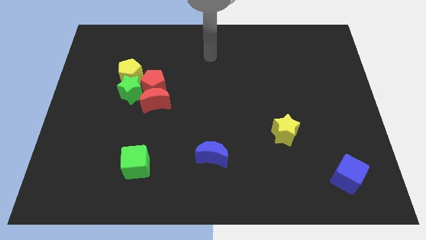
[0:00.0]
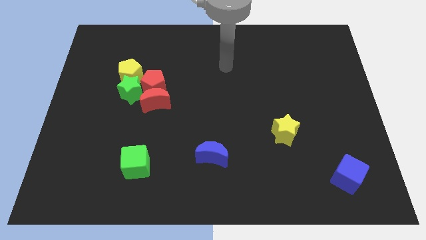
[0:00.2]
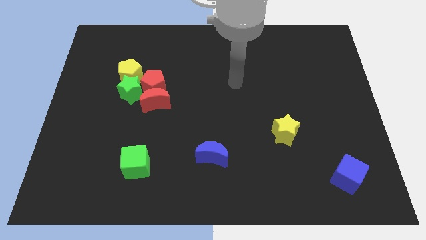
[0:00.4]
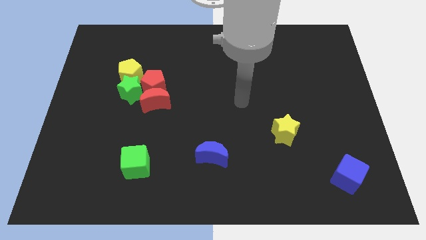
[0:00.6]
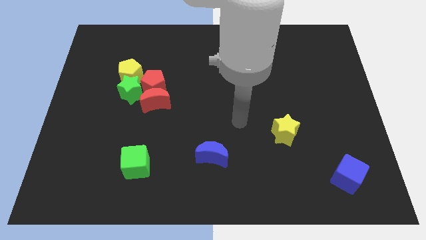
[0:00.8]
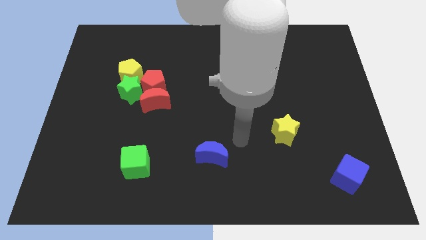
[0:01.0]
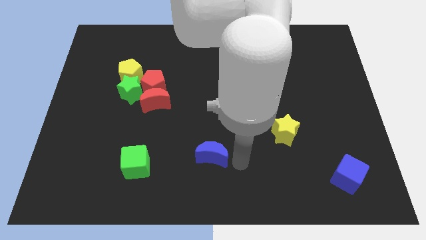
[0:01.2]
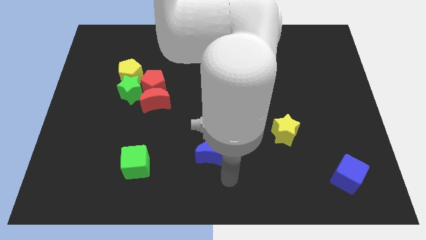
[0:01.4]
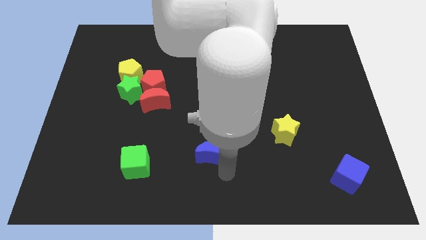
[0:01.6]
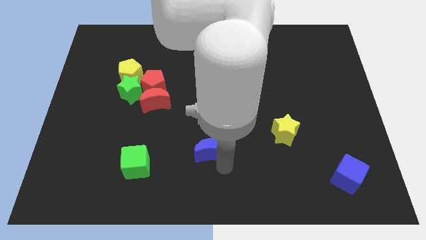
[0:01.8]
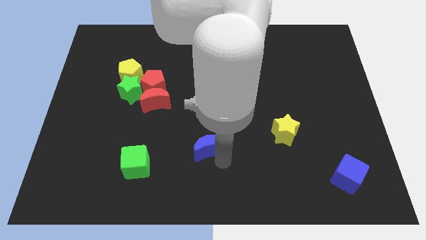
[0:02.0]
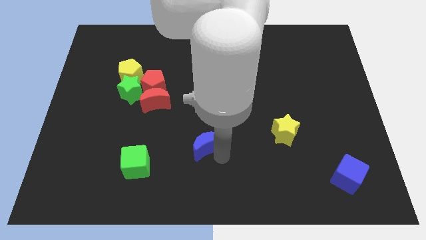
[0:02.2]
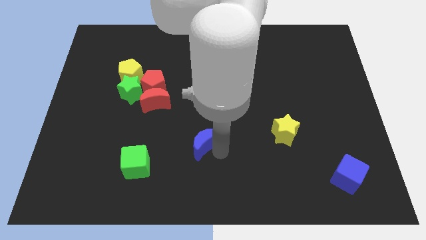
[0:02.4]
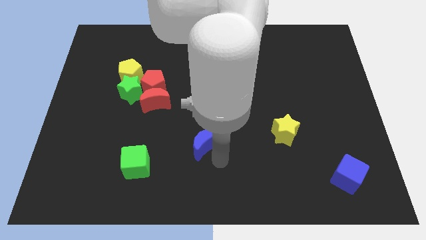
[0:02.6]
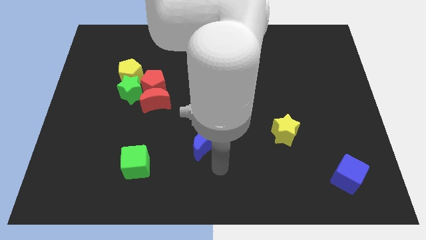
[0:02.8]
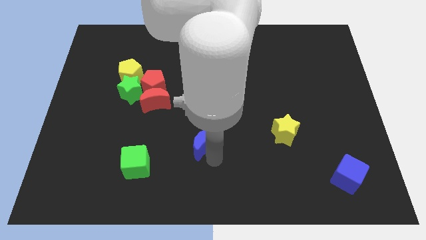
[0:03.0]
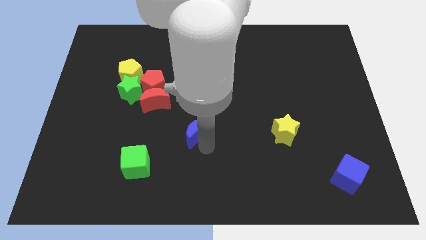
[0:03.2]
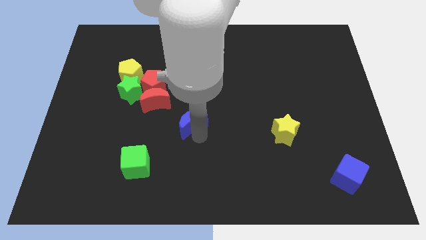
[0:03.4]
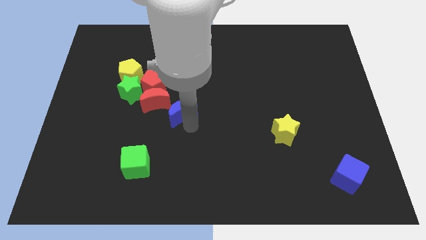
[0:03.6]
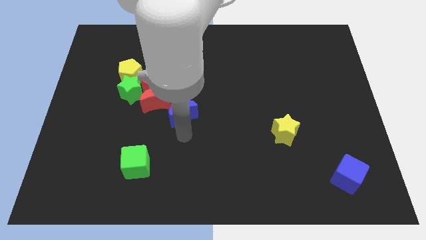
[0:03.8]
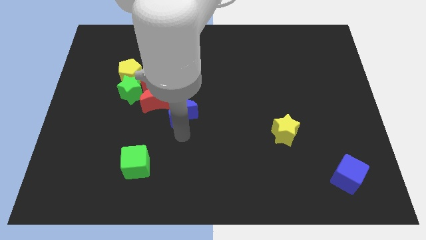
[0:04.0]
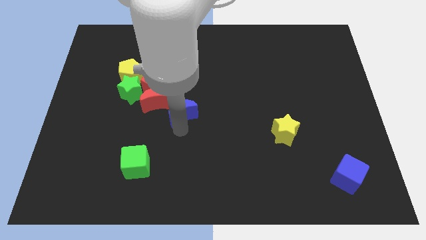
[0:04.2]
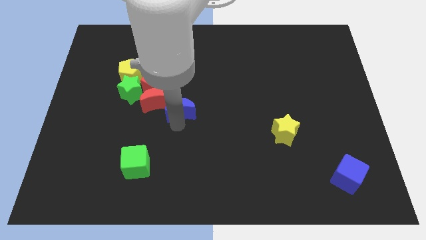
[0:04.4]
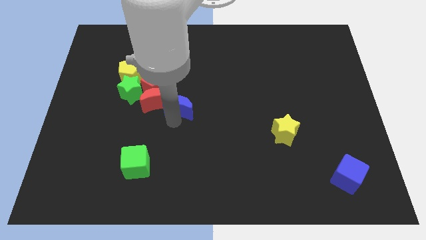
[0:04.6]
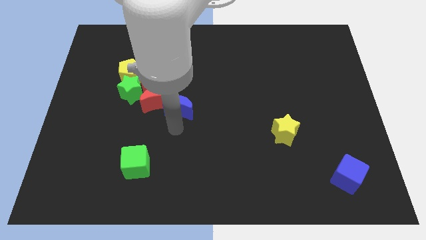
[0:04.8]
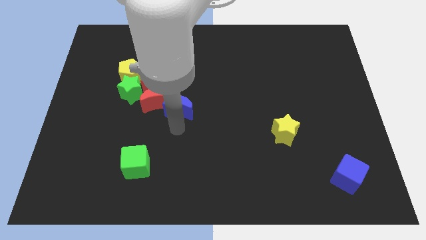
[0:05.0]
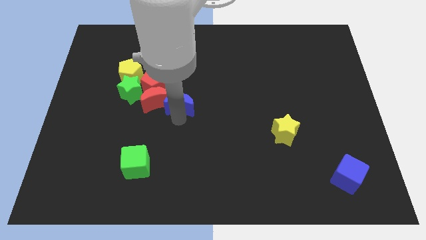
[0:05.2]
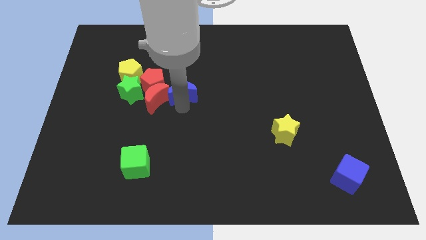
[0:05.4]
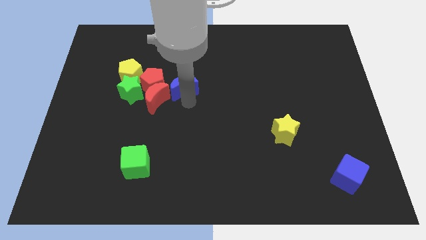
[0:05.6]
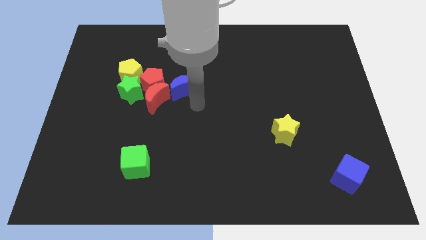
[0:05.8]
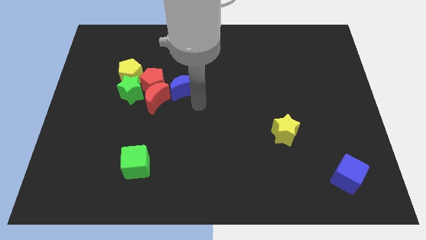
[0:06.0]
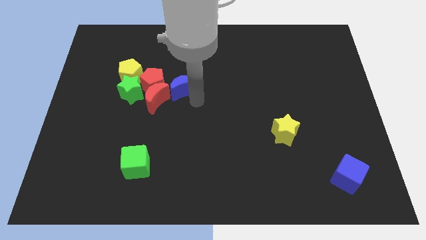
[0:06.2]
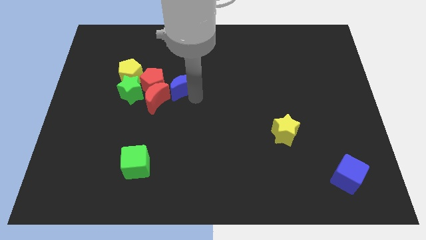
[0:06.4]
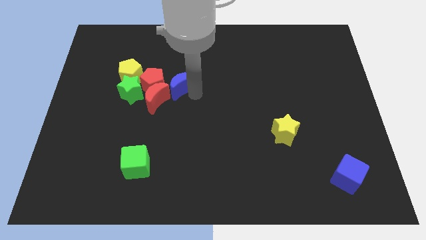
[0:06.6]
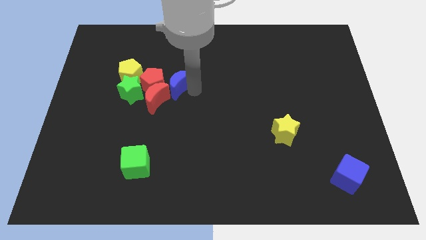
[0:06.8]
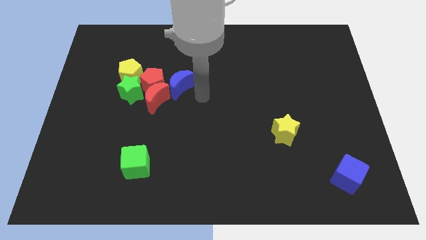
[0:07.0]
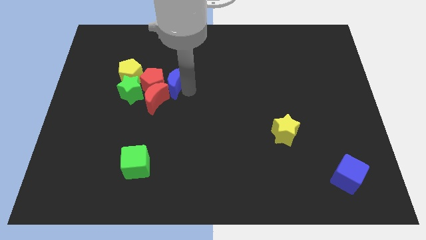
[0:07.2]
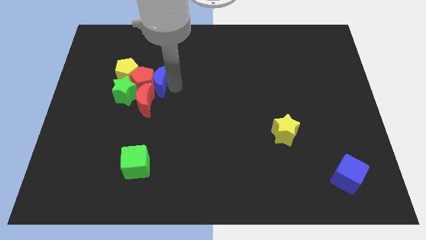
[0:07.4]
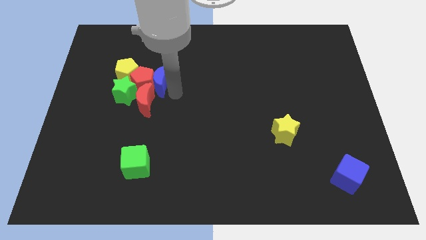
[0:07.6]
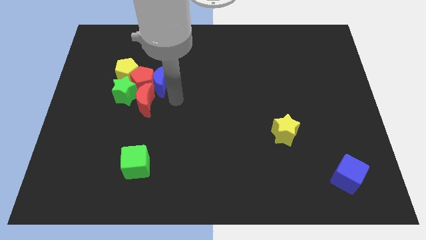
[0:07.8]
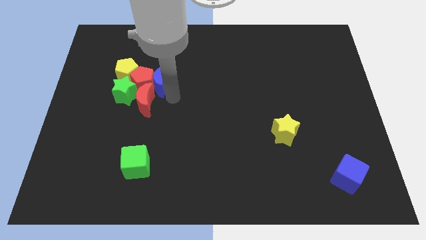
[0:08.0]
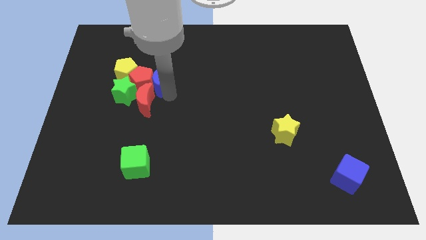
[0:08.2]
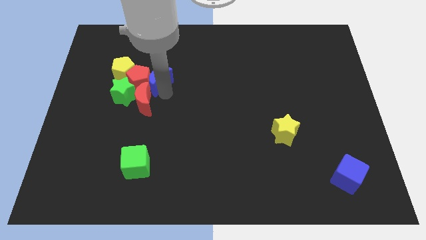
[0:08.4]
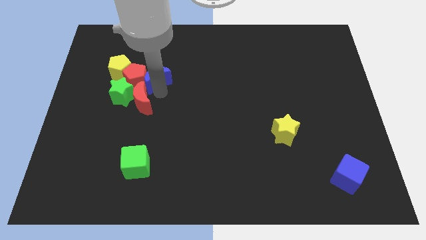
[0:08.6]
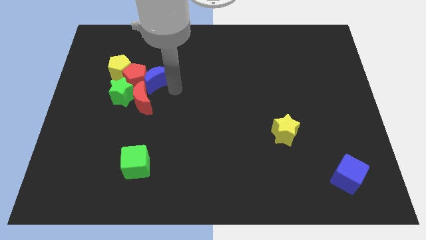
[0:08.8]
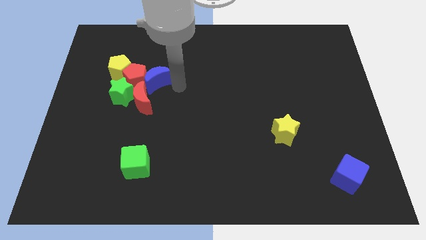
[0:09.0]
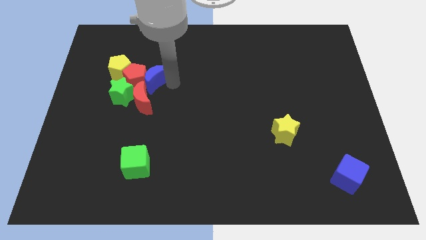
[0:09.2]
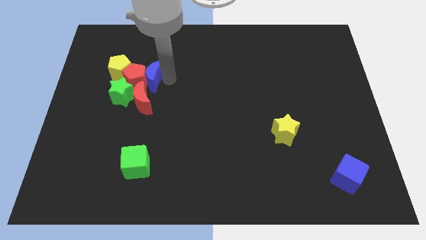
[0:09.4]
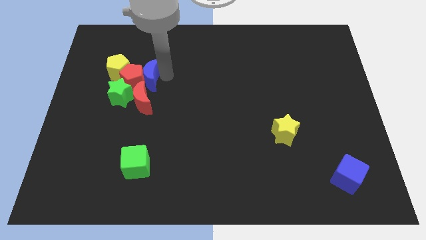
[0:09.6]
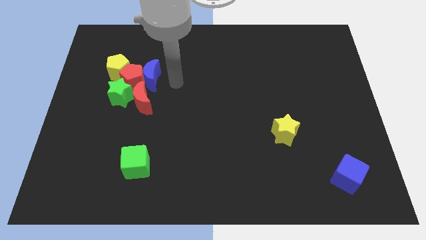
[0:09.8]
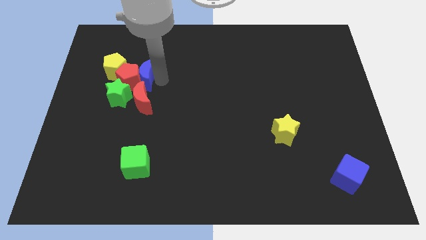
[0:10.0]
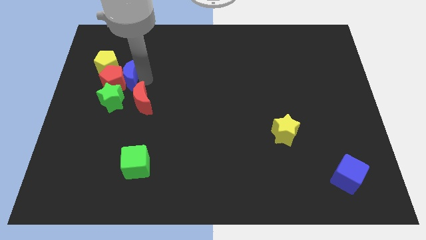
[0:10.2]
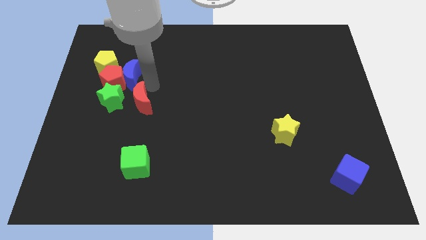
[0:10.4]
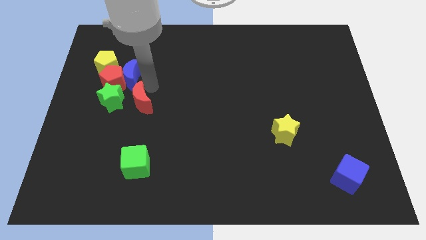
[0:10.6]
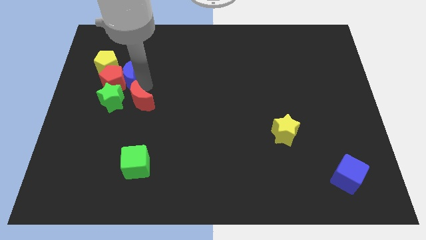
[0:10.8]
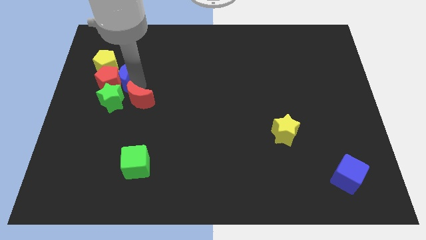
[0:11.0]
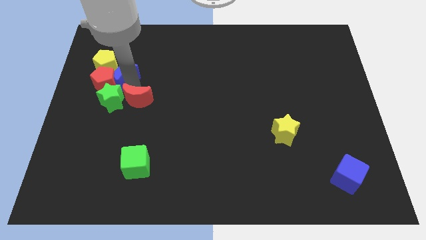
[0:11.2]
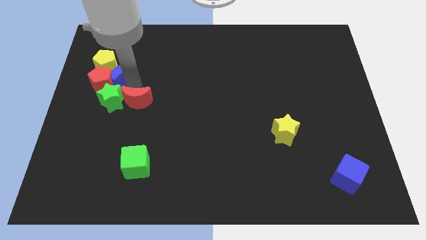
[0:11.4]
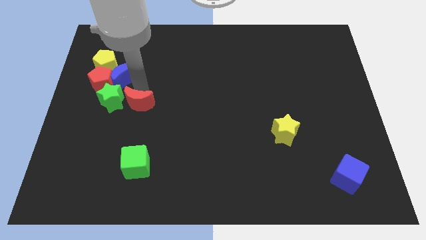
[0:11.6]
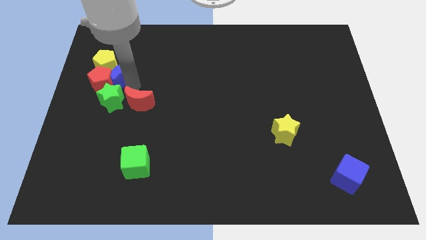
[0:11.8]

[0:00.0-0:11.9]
put the blue moon to the yellow pentagon

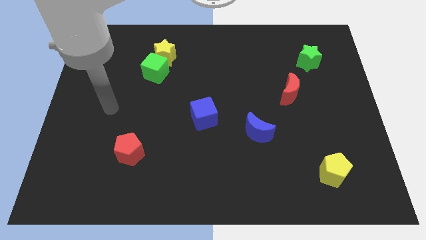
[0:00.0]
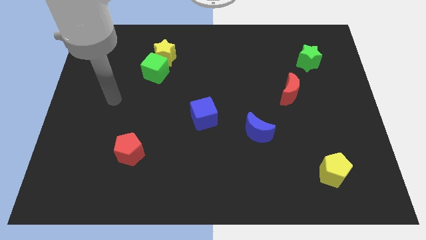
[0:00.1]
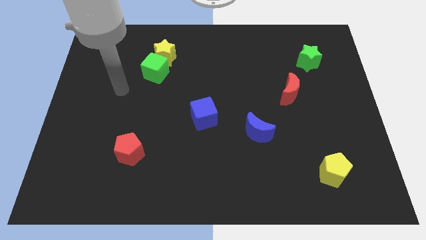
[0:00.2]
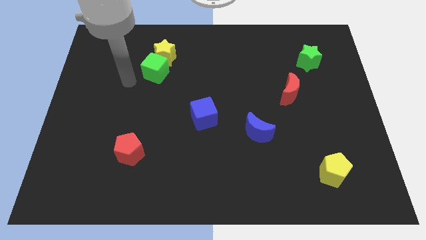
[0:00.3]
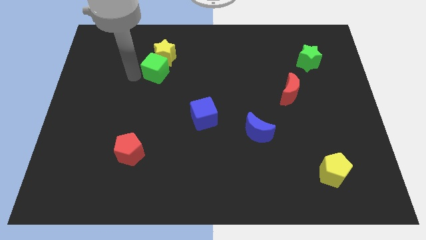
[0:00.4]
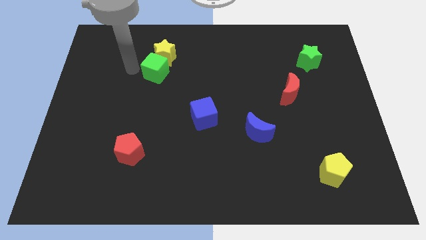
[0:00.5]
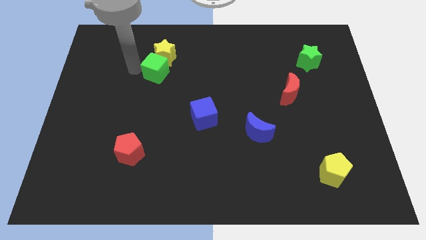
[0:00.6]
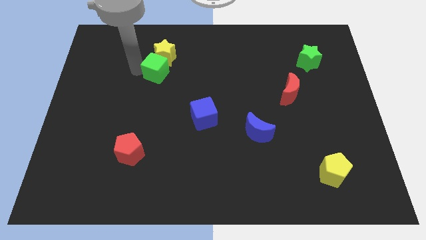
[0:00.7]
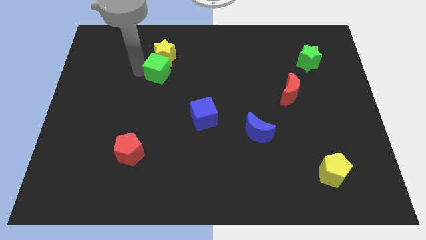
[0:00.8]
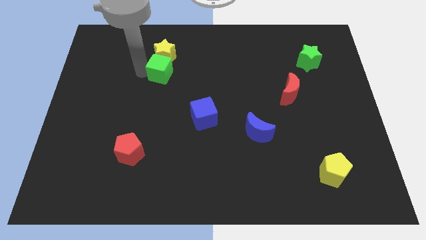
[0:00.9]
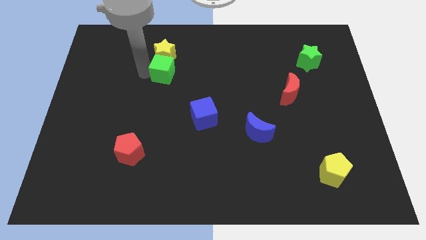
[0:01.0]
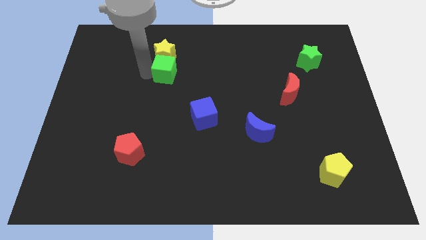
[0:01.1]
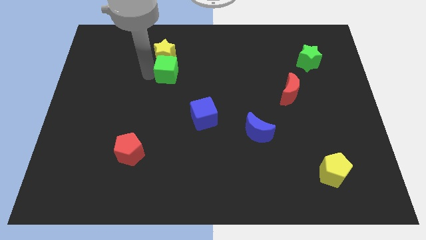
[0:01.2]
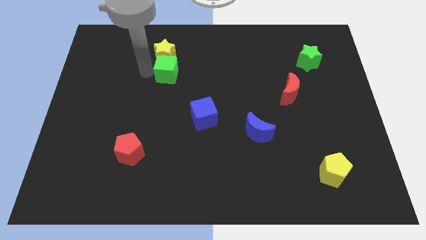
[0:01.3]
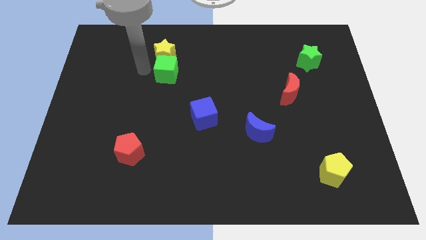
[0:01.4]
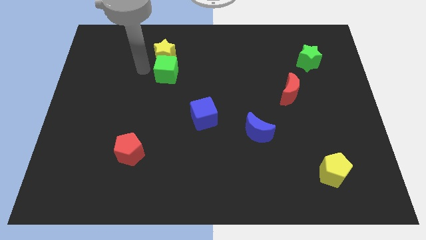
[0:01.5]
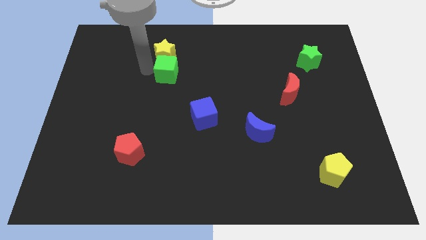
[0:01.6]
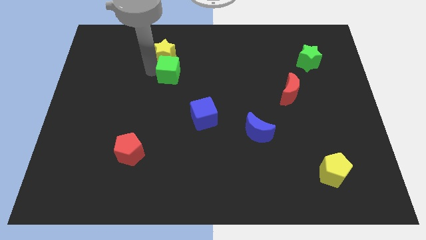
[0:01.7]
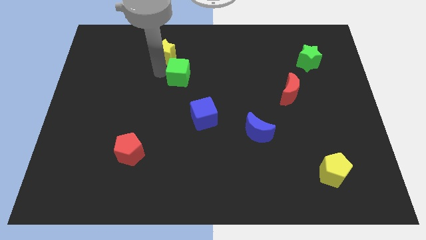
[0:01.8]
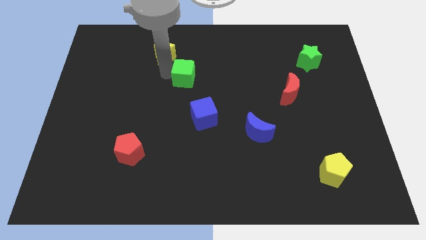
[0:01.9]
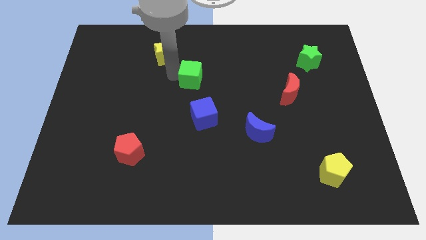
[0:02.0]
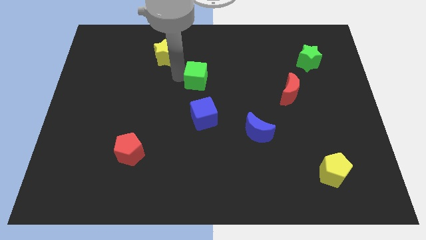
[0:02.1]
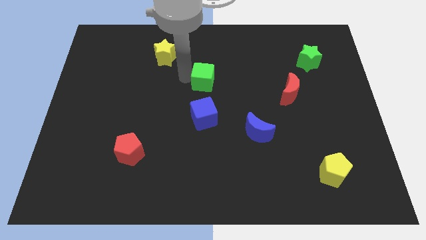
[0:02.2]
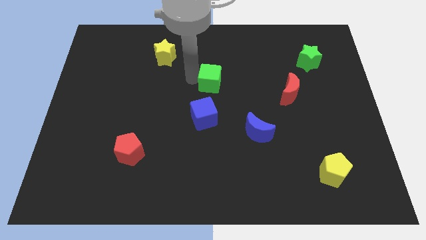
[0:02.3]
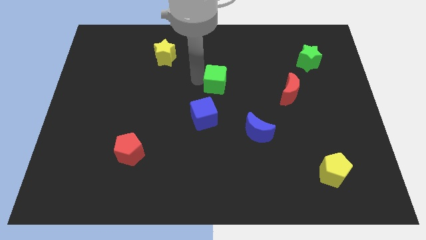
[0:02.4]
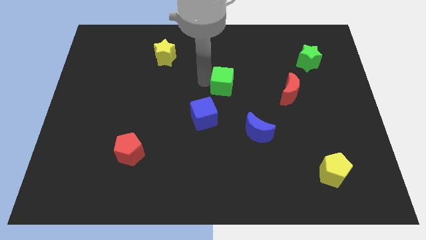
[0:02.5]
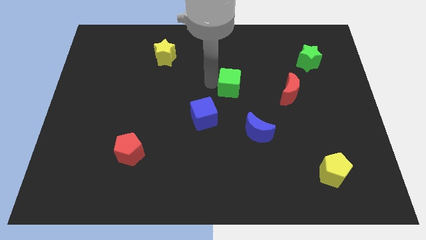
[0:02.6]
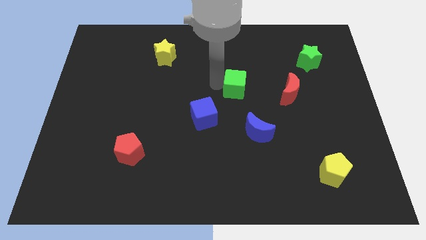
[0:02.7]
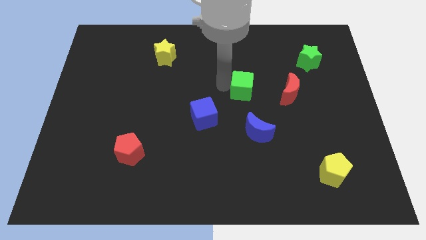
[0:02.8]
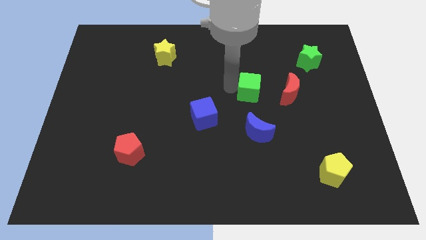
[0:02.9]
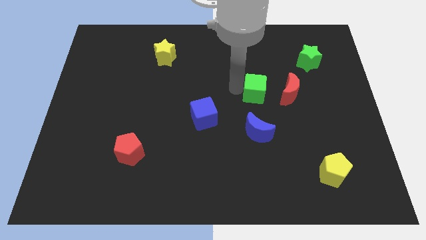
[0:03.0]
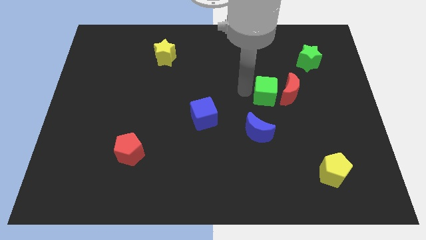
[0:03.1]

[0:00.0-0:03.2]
push the green cube next to the red moon
